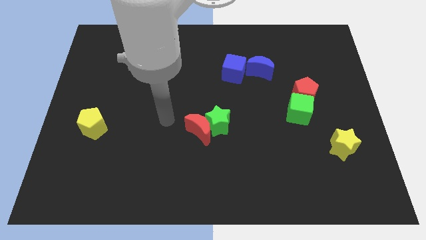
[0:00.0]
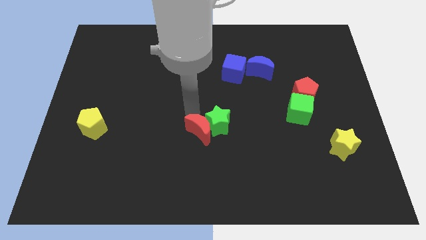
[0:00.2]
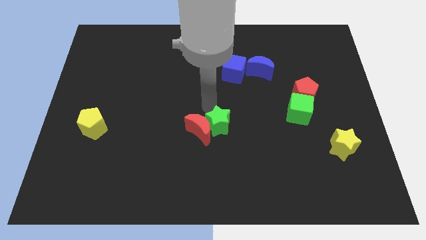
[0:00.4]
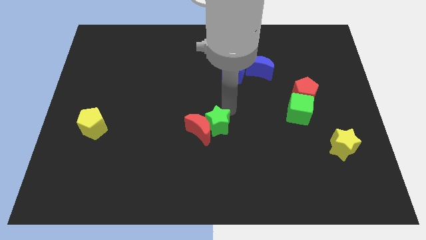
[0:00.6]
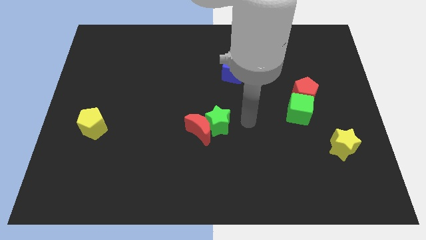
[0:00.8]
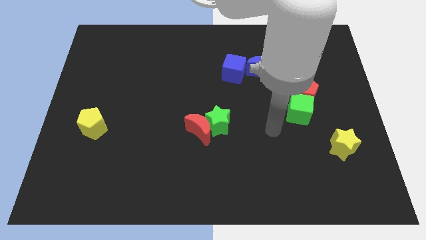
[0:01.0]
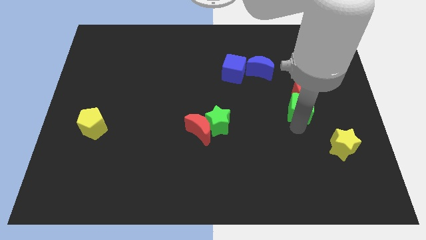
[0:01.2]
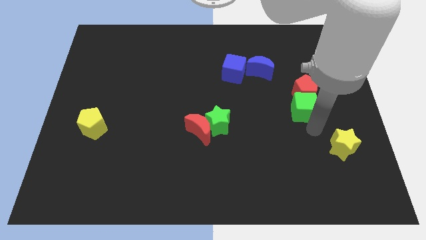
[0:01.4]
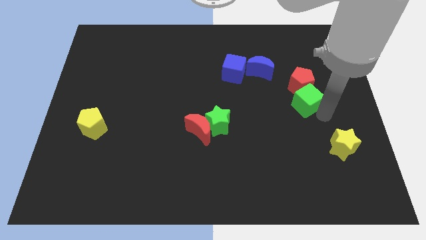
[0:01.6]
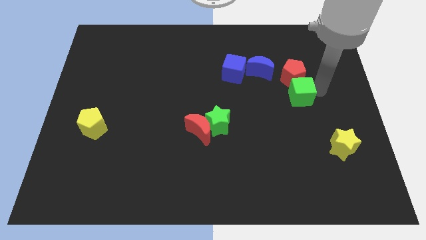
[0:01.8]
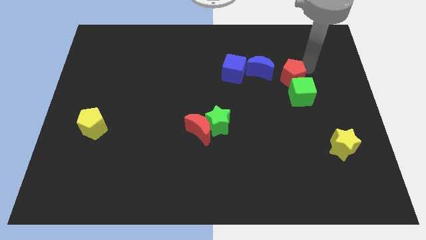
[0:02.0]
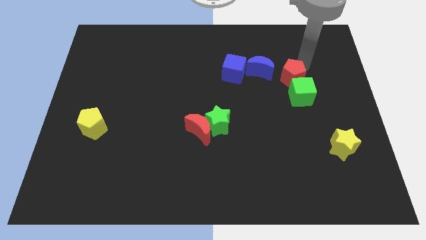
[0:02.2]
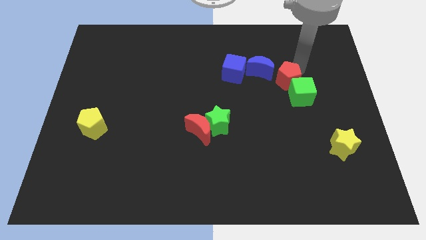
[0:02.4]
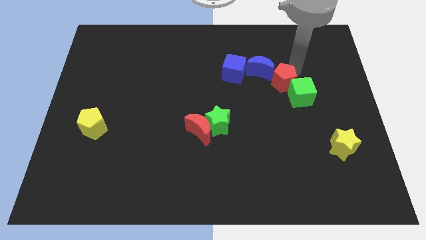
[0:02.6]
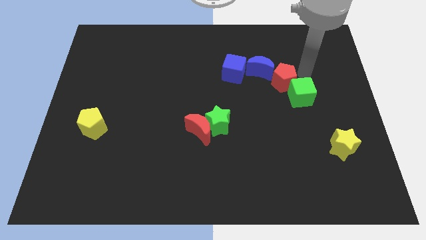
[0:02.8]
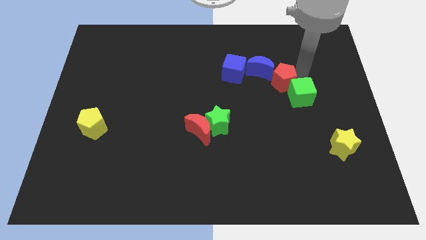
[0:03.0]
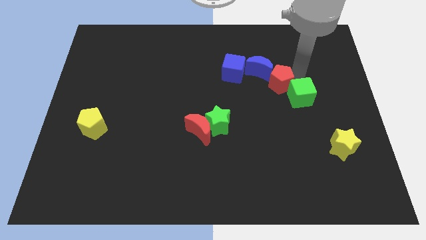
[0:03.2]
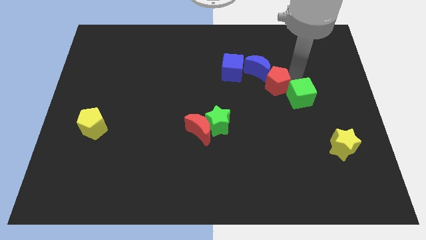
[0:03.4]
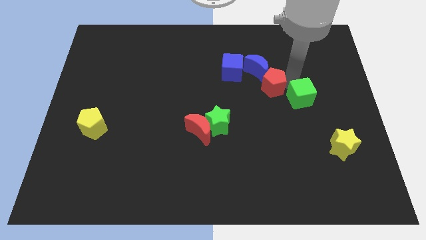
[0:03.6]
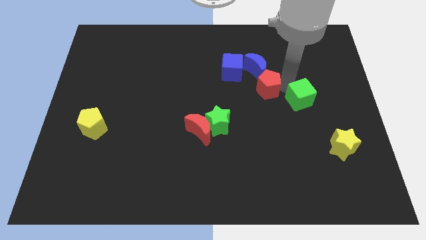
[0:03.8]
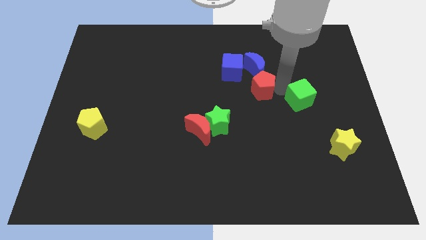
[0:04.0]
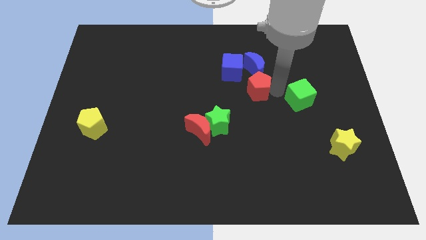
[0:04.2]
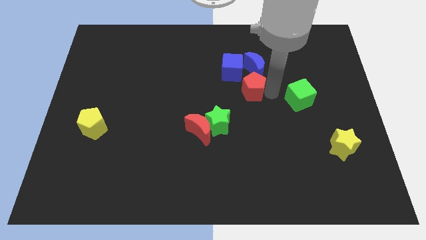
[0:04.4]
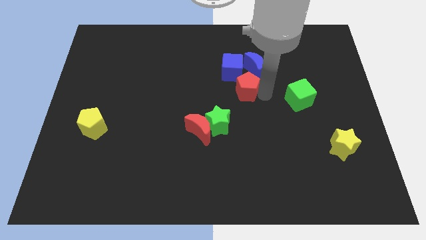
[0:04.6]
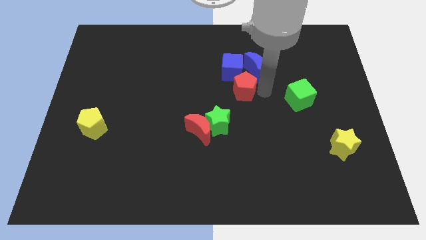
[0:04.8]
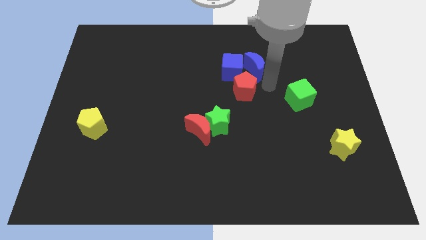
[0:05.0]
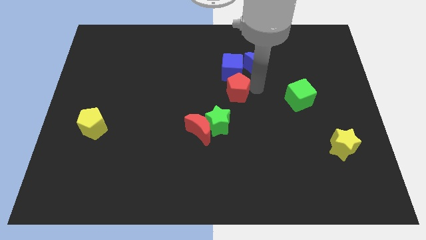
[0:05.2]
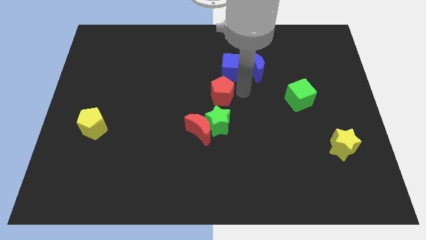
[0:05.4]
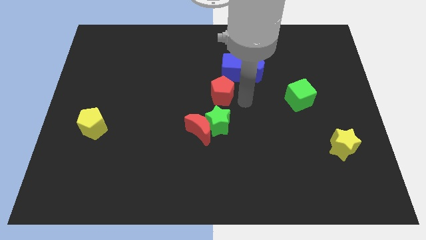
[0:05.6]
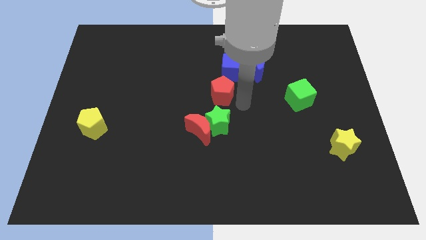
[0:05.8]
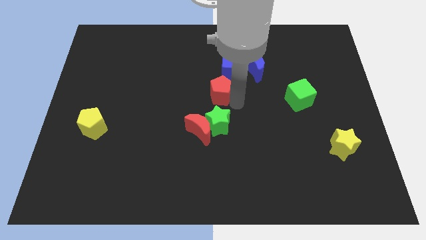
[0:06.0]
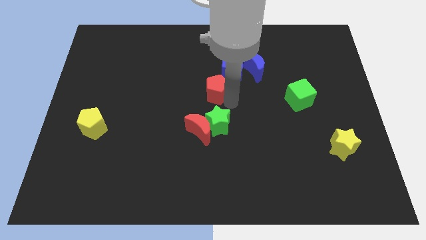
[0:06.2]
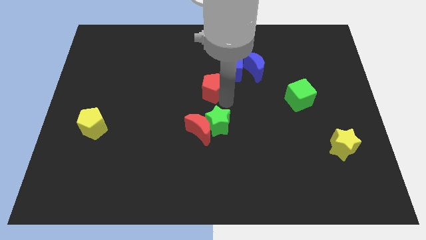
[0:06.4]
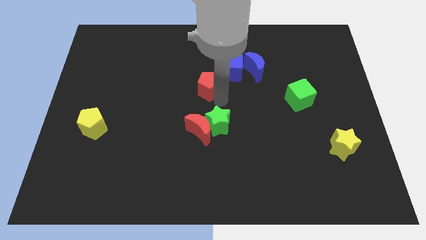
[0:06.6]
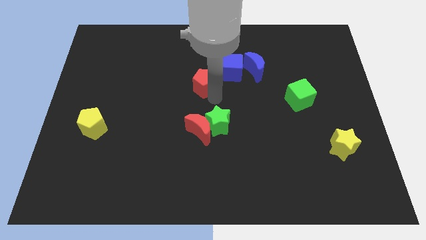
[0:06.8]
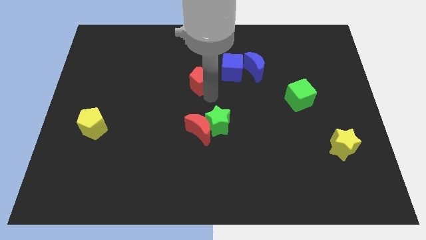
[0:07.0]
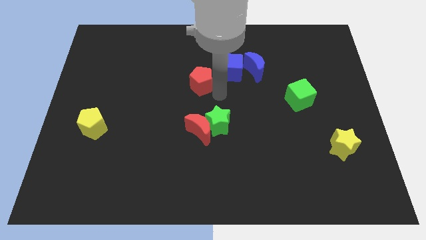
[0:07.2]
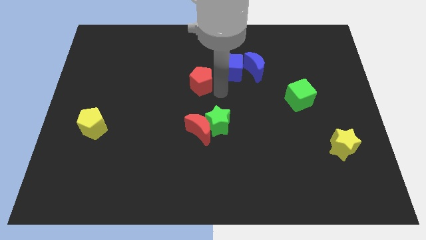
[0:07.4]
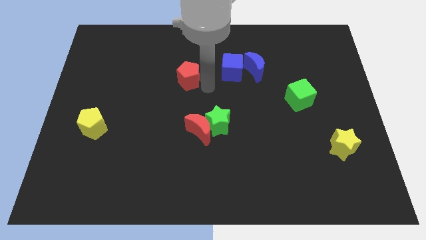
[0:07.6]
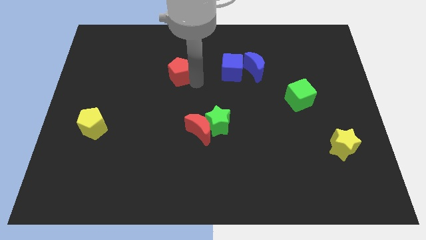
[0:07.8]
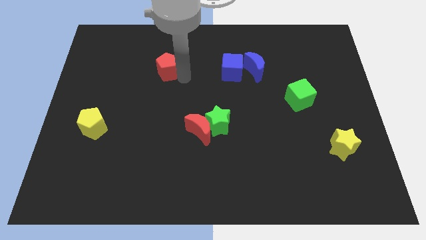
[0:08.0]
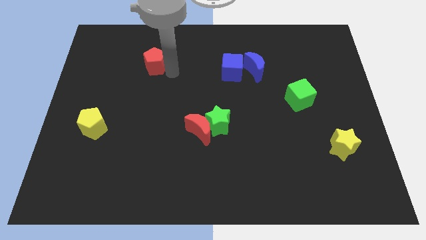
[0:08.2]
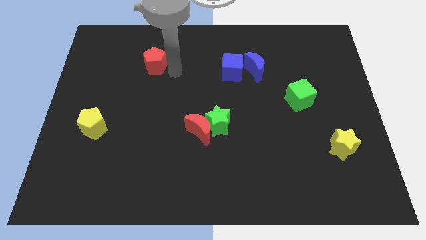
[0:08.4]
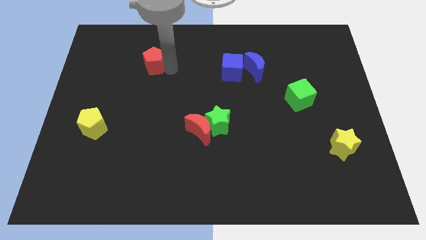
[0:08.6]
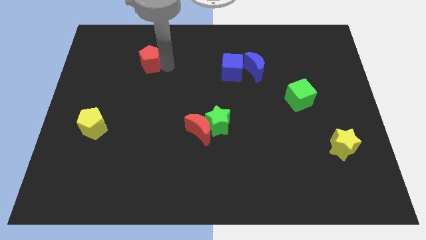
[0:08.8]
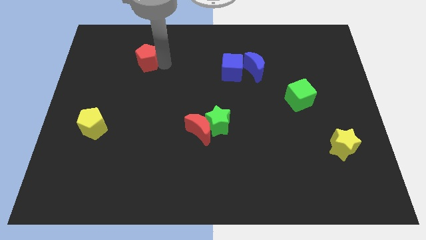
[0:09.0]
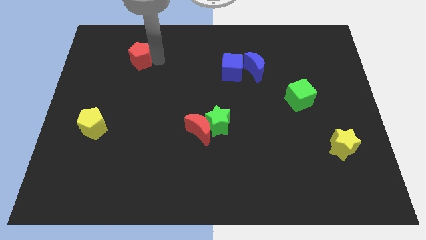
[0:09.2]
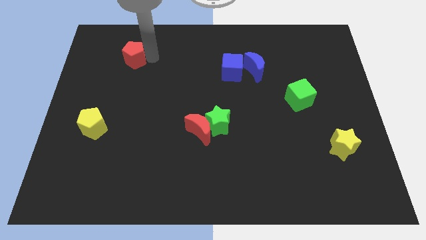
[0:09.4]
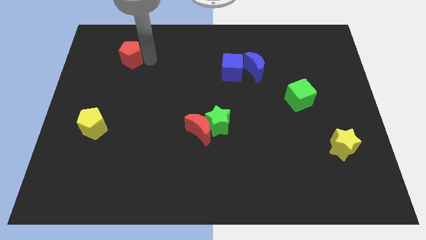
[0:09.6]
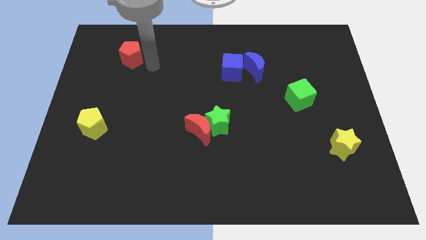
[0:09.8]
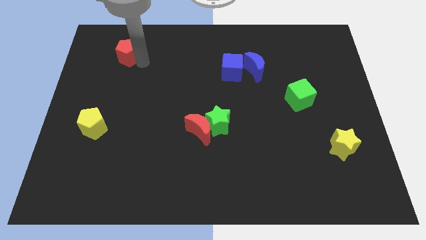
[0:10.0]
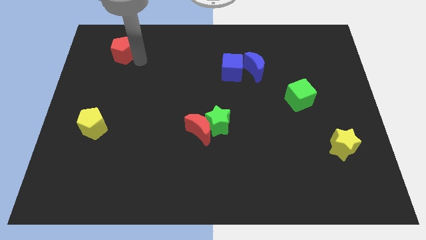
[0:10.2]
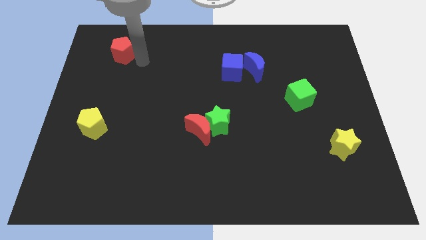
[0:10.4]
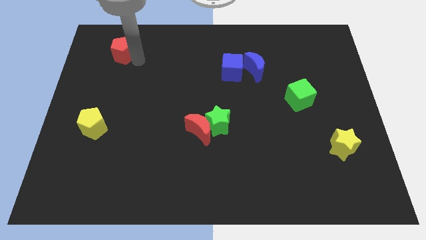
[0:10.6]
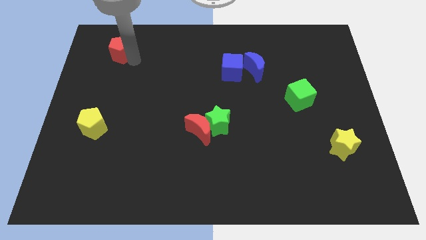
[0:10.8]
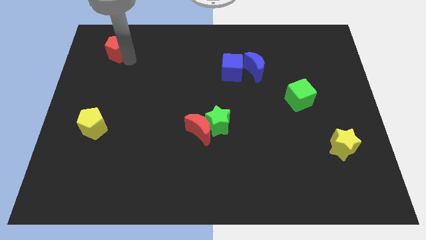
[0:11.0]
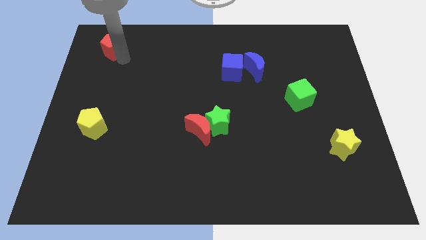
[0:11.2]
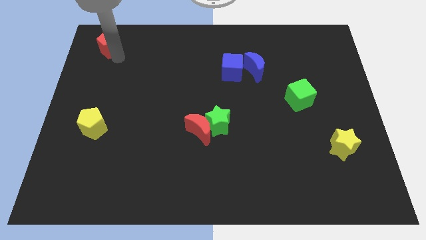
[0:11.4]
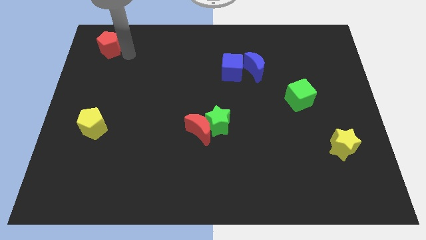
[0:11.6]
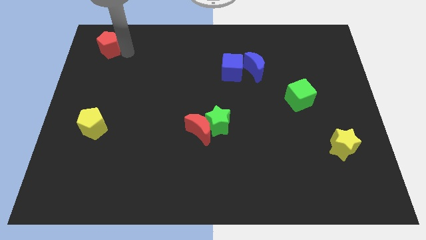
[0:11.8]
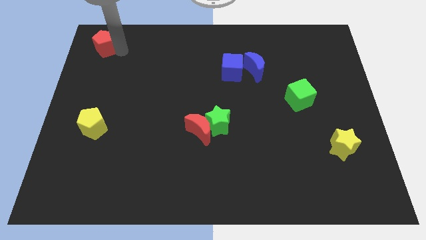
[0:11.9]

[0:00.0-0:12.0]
push the red pentagon to the upper left corner
